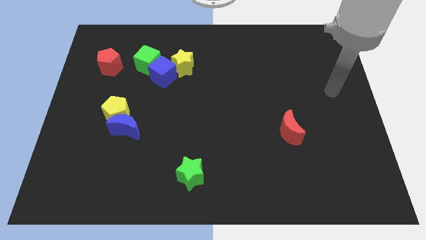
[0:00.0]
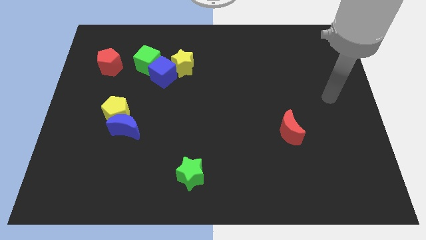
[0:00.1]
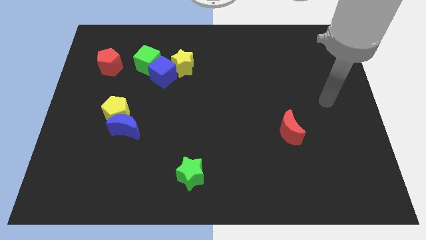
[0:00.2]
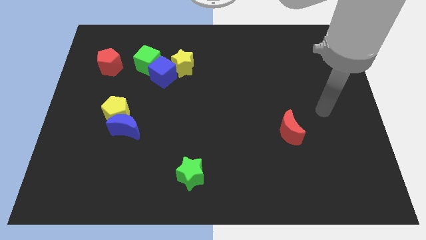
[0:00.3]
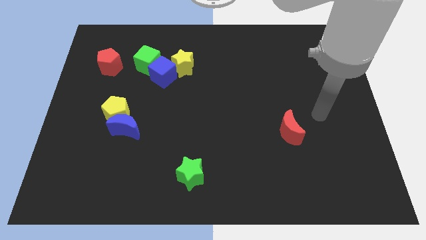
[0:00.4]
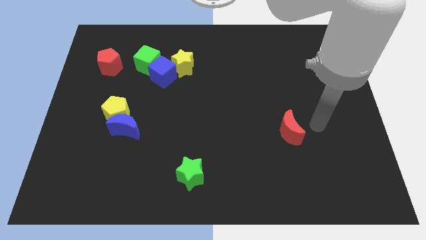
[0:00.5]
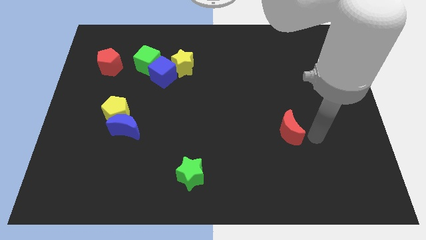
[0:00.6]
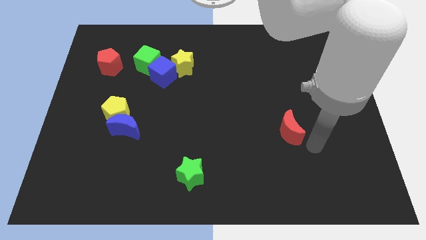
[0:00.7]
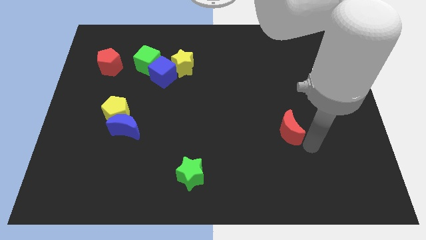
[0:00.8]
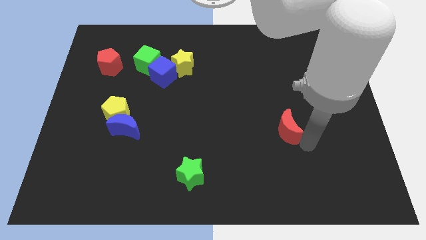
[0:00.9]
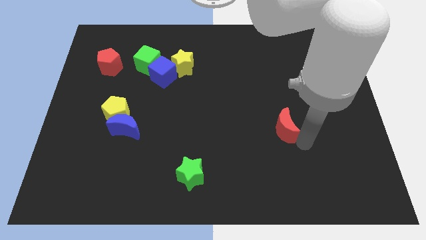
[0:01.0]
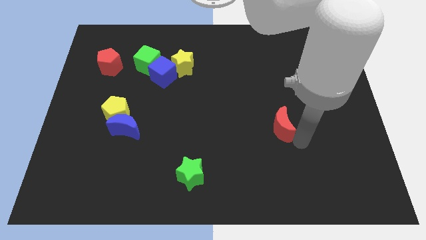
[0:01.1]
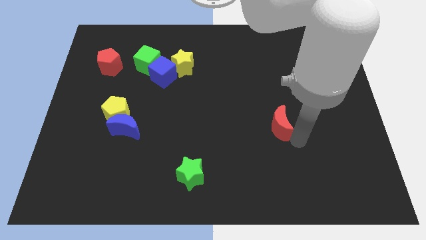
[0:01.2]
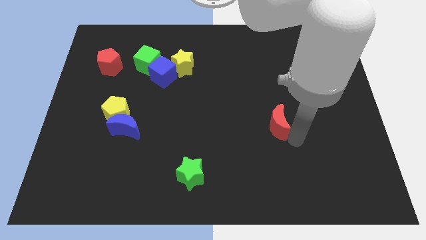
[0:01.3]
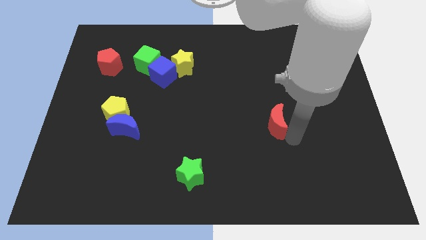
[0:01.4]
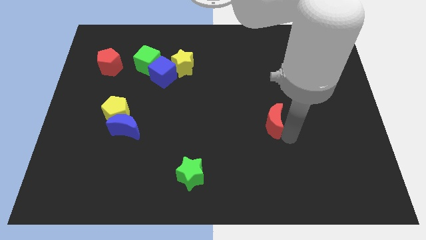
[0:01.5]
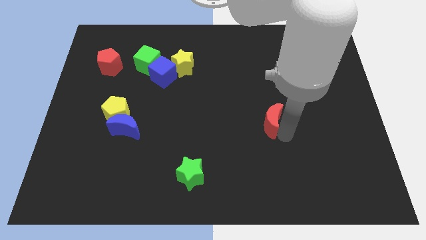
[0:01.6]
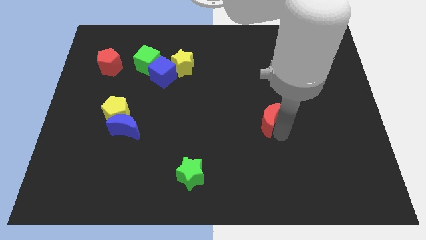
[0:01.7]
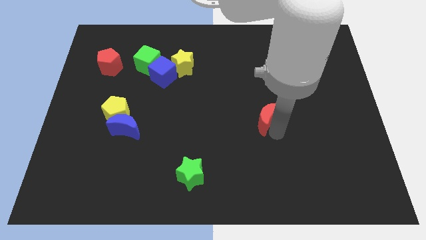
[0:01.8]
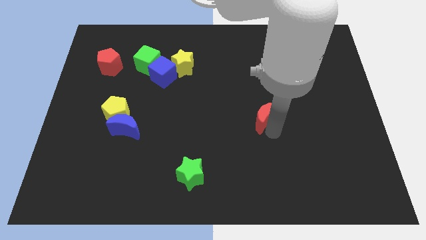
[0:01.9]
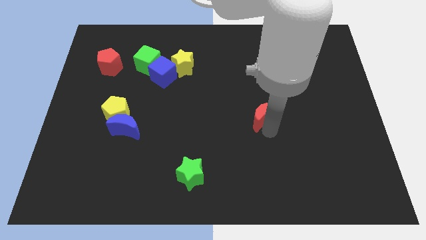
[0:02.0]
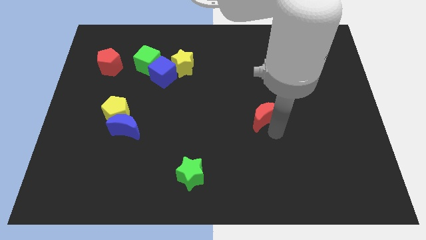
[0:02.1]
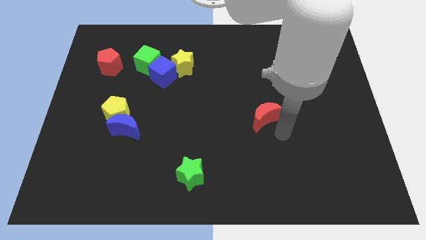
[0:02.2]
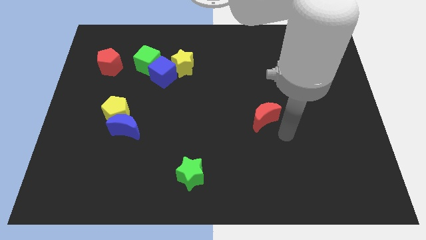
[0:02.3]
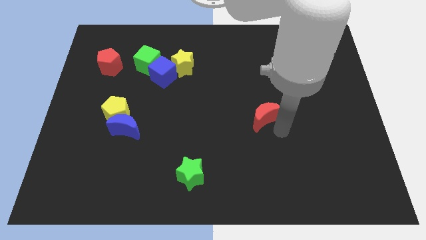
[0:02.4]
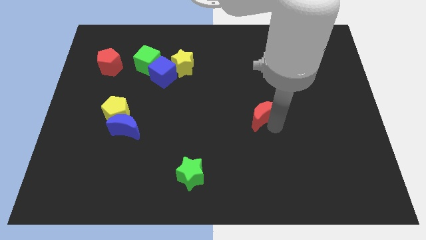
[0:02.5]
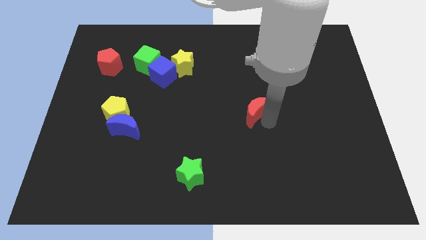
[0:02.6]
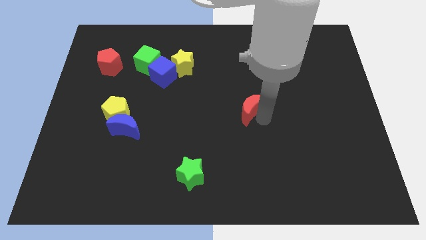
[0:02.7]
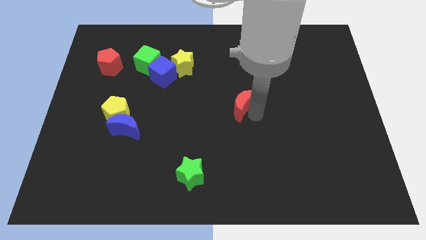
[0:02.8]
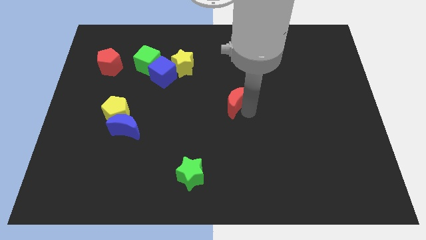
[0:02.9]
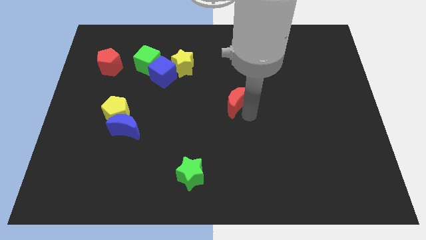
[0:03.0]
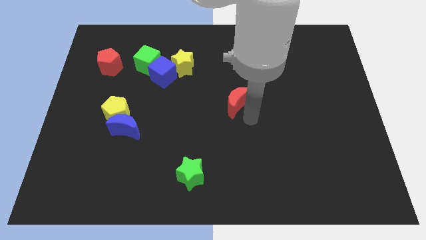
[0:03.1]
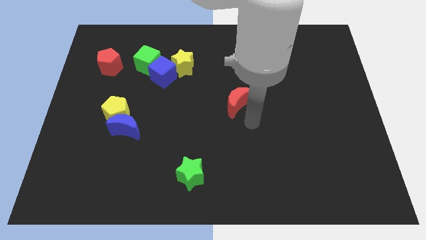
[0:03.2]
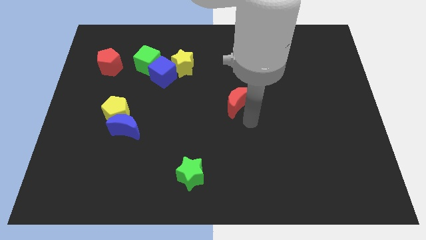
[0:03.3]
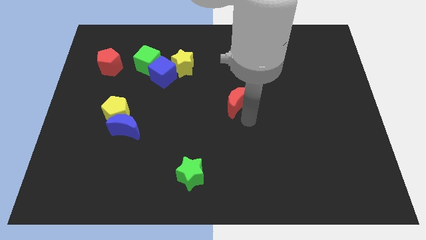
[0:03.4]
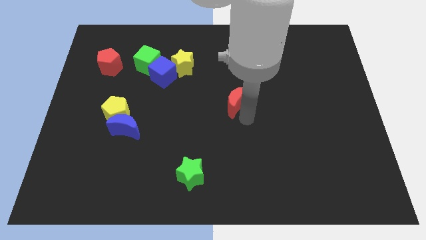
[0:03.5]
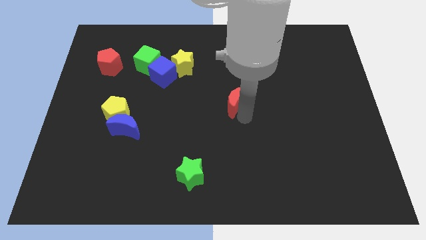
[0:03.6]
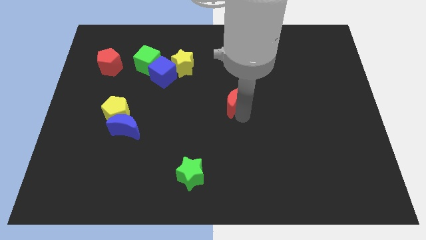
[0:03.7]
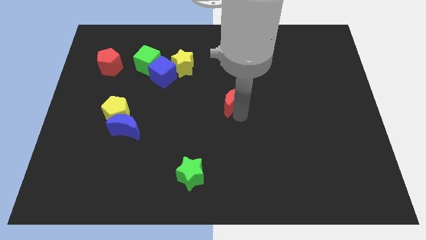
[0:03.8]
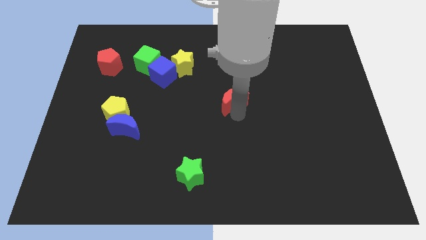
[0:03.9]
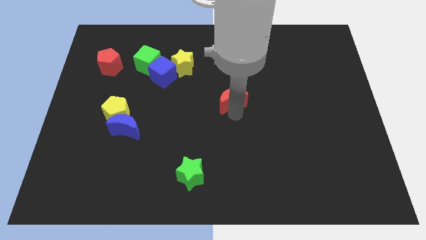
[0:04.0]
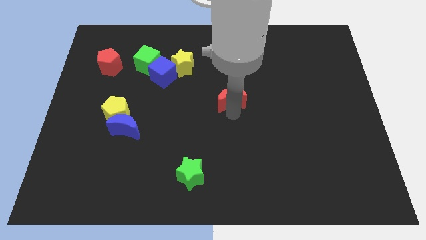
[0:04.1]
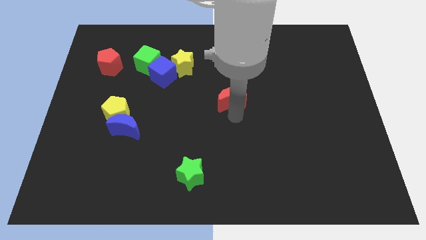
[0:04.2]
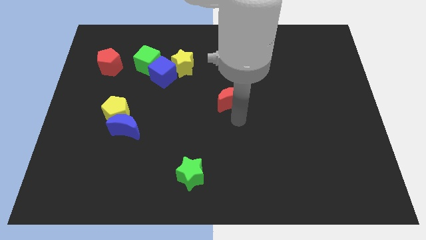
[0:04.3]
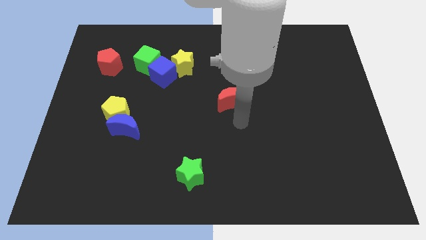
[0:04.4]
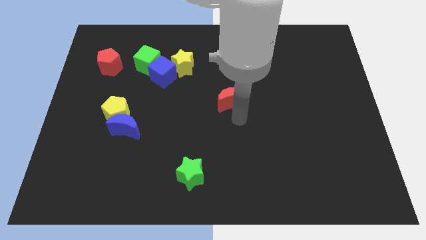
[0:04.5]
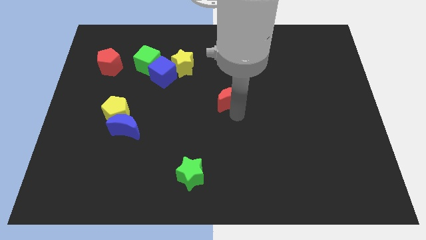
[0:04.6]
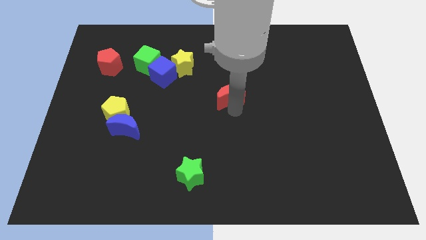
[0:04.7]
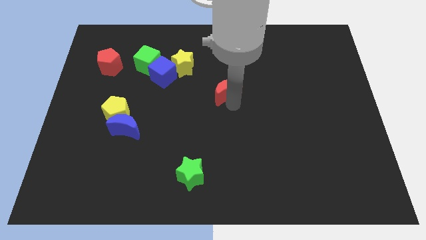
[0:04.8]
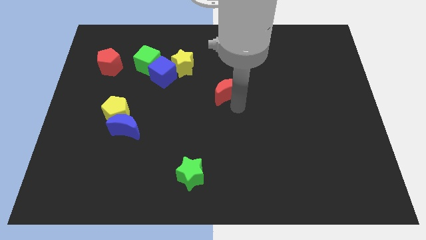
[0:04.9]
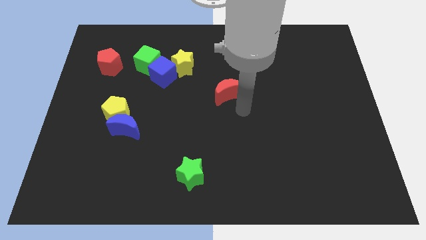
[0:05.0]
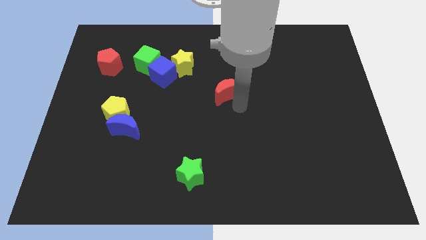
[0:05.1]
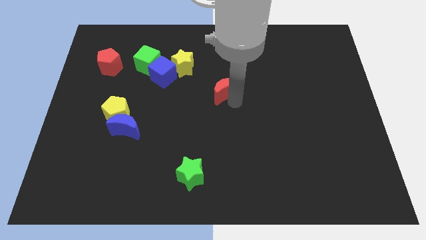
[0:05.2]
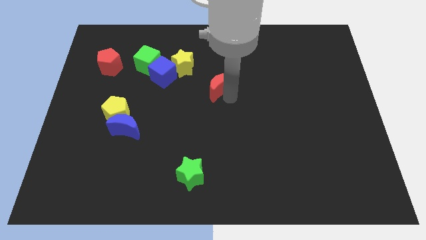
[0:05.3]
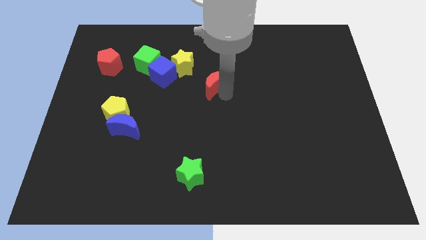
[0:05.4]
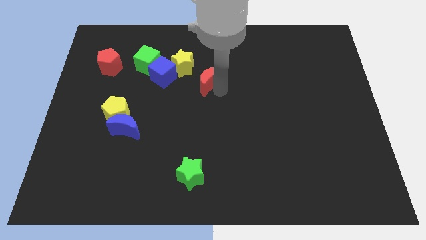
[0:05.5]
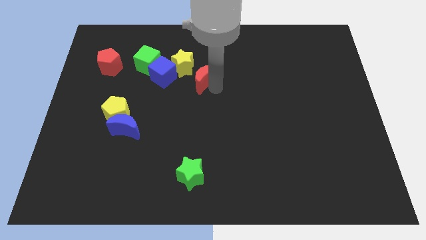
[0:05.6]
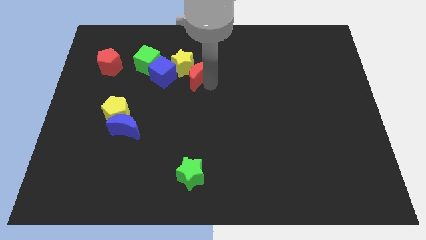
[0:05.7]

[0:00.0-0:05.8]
slide the red moon towards the yellow star

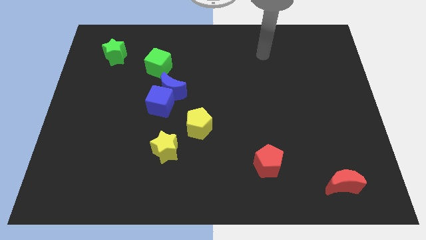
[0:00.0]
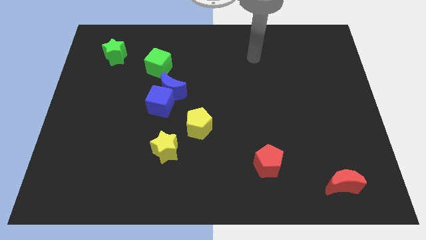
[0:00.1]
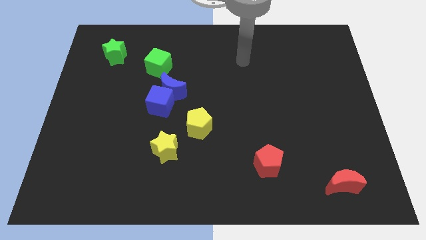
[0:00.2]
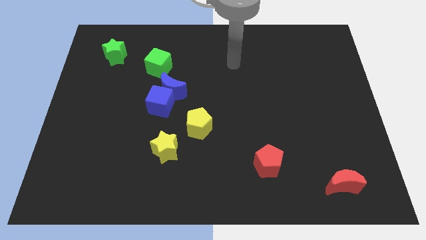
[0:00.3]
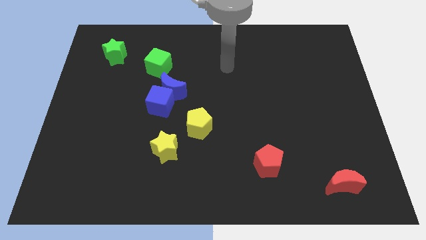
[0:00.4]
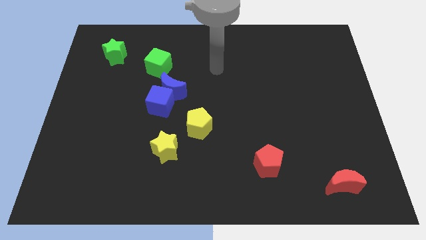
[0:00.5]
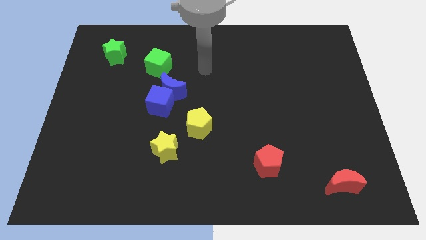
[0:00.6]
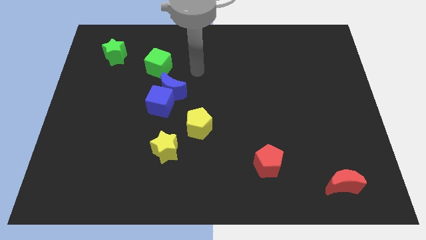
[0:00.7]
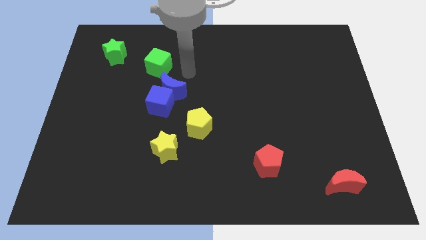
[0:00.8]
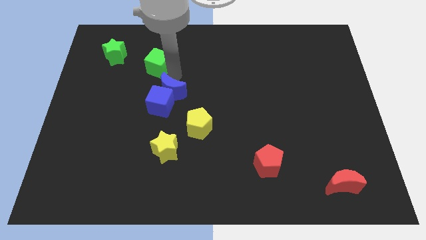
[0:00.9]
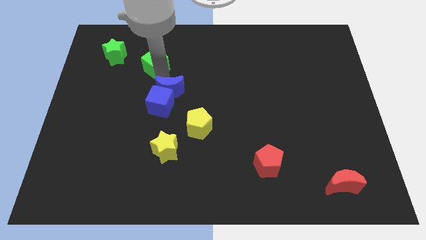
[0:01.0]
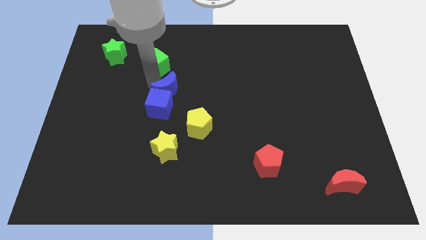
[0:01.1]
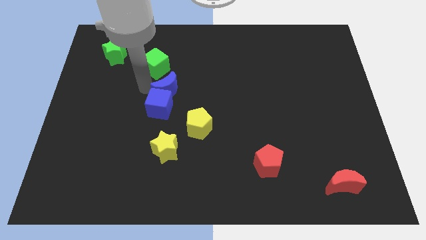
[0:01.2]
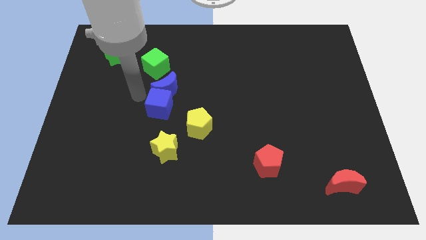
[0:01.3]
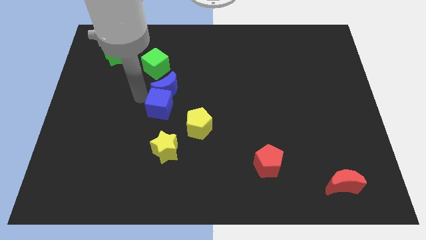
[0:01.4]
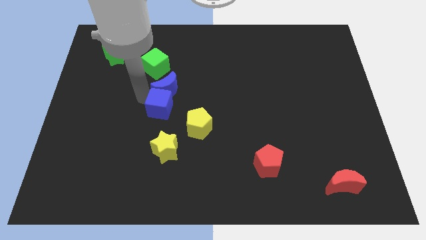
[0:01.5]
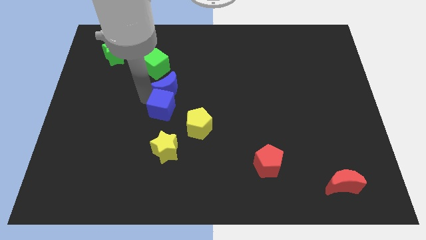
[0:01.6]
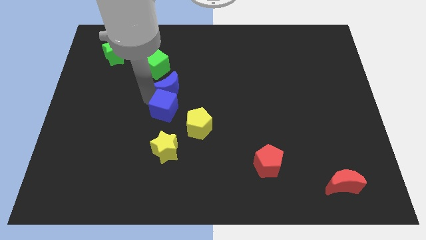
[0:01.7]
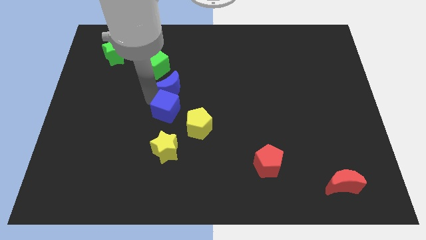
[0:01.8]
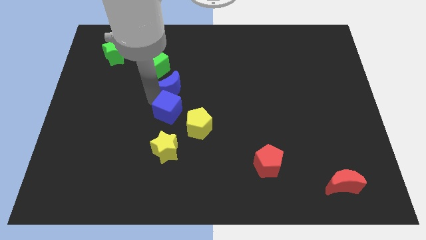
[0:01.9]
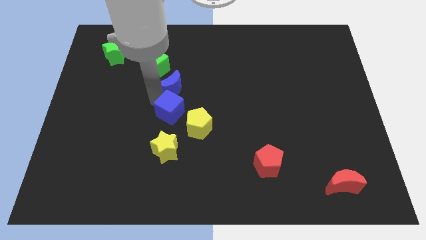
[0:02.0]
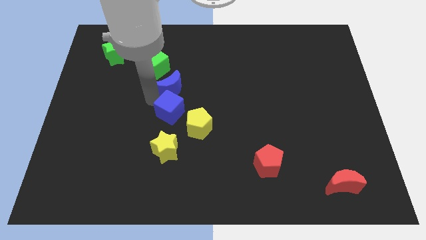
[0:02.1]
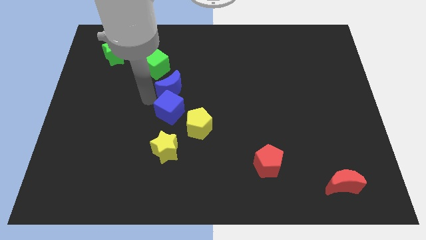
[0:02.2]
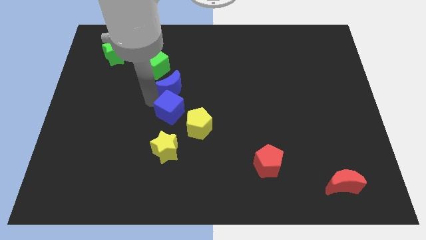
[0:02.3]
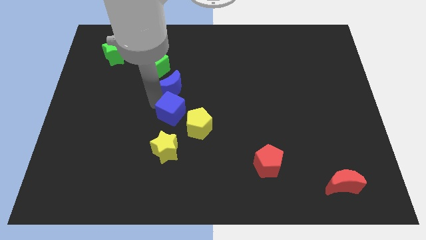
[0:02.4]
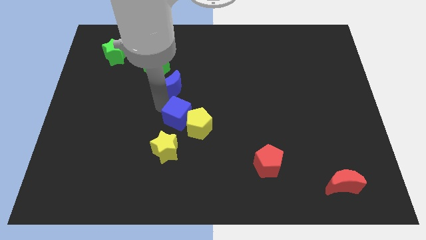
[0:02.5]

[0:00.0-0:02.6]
push the blue cube to the yellow pentagon
